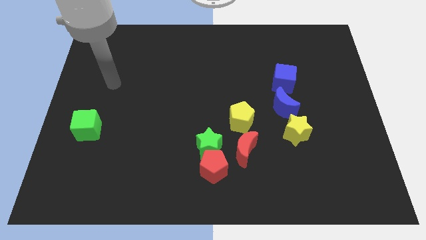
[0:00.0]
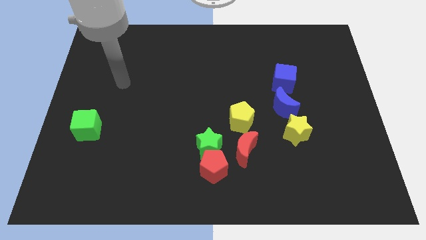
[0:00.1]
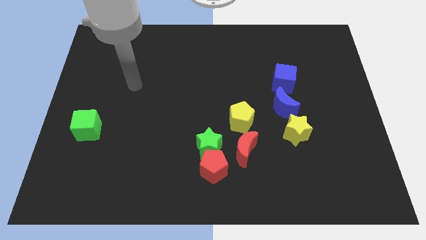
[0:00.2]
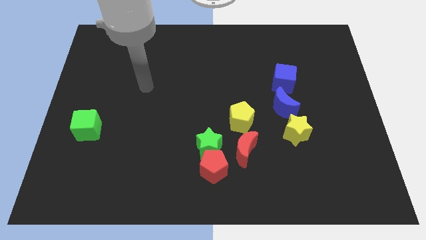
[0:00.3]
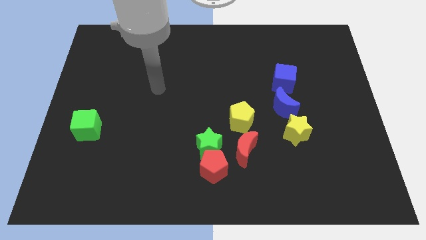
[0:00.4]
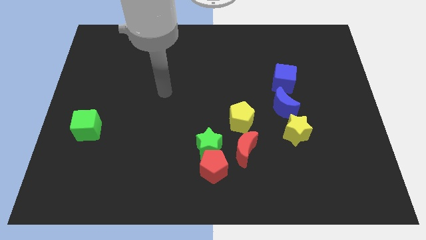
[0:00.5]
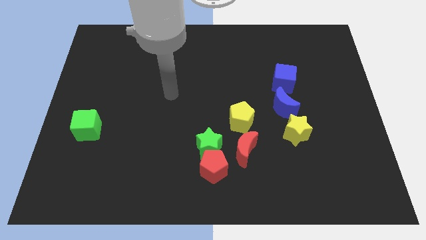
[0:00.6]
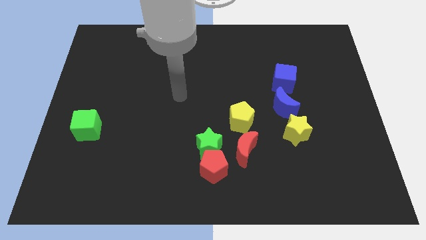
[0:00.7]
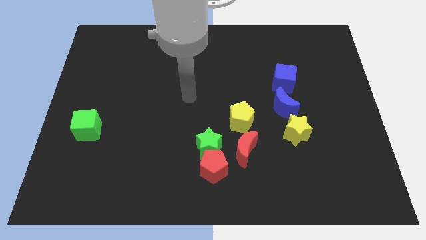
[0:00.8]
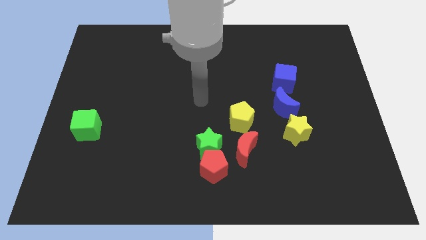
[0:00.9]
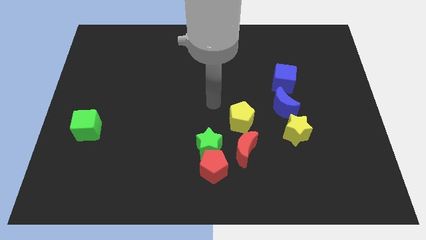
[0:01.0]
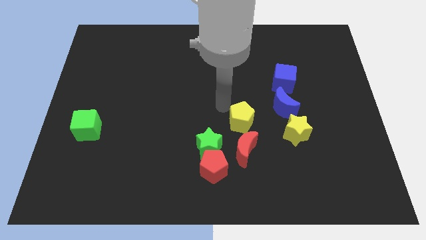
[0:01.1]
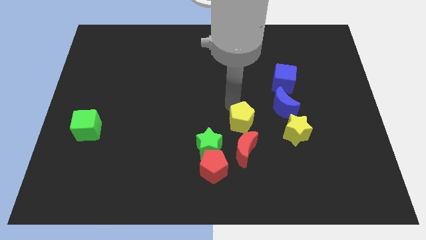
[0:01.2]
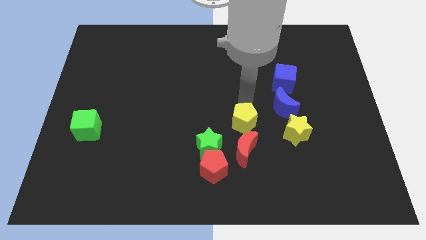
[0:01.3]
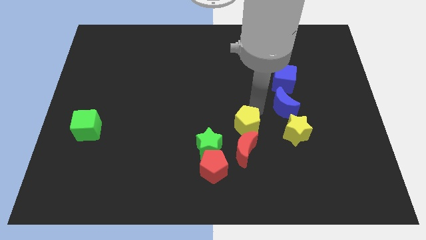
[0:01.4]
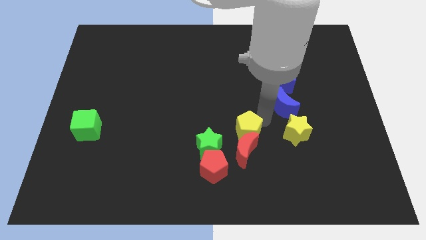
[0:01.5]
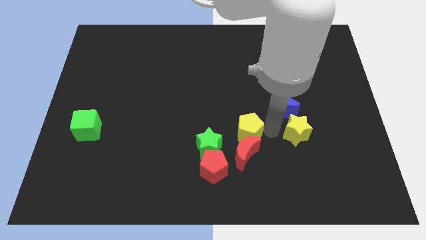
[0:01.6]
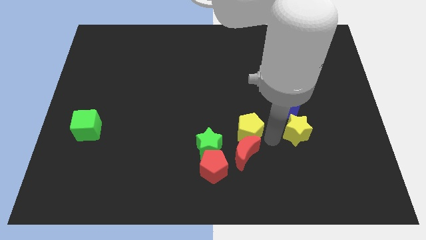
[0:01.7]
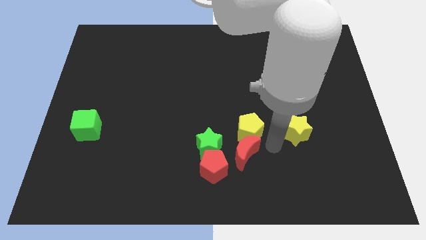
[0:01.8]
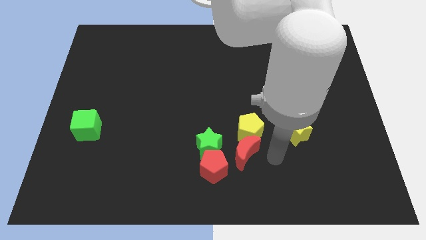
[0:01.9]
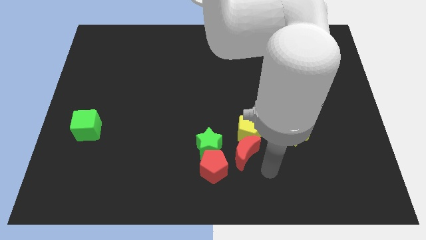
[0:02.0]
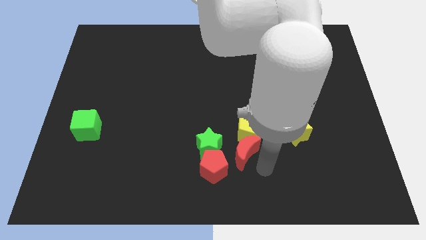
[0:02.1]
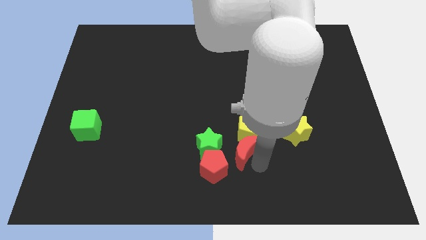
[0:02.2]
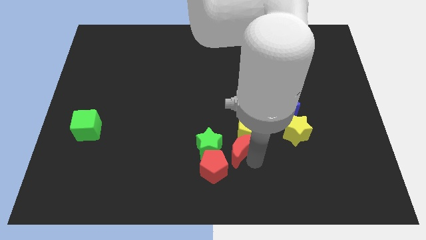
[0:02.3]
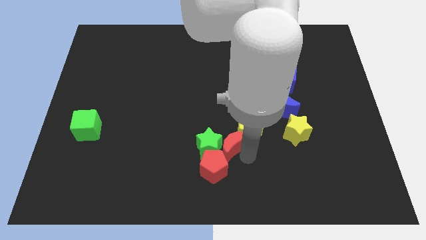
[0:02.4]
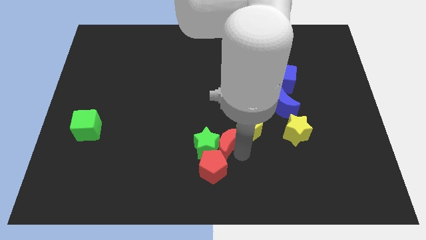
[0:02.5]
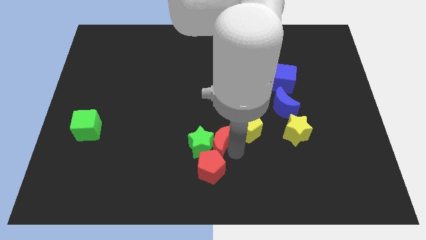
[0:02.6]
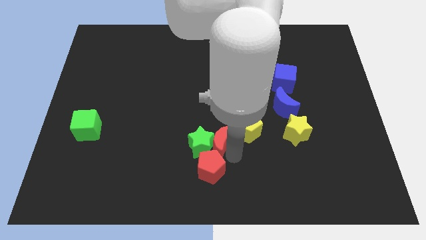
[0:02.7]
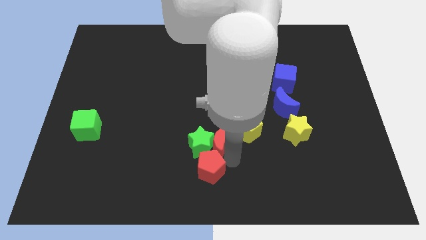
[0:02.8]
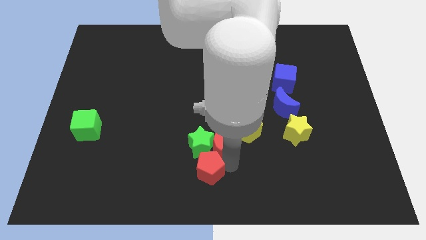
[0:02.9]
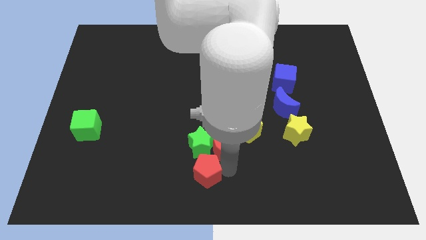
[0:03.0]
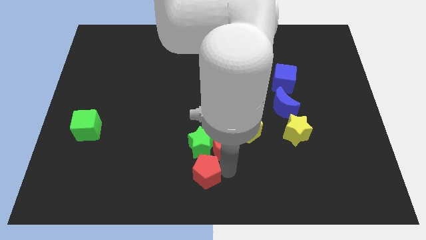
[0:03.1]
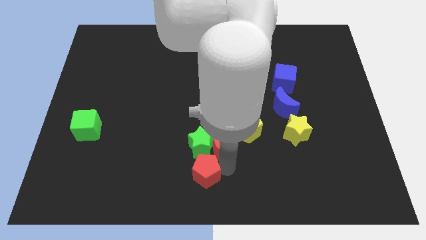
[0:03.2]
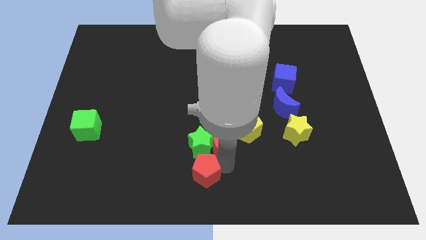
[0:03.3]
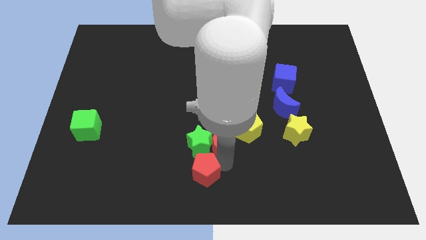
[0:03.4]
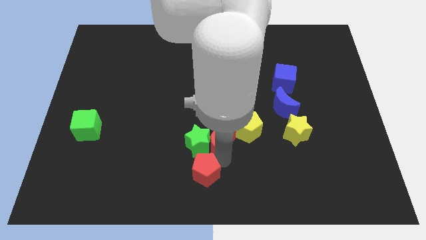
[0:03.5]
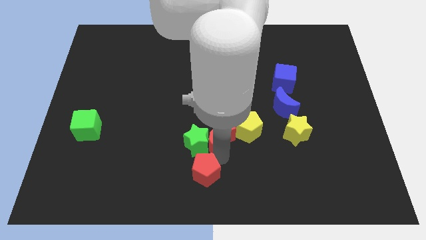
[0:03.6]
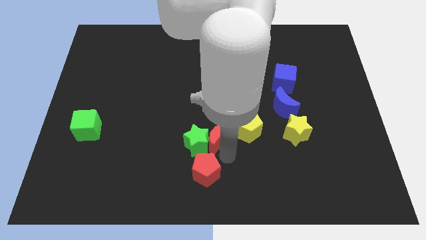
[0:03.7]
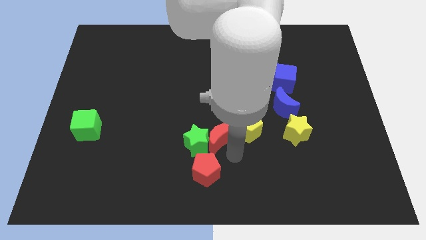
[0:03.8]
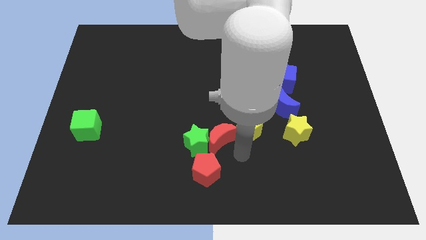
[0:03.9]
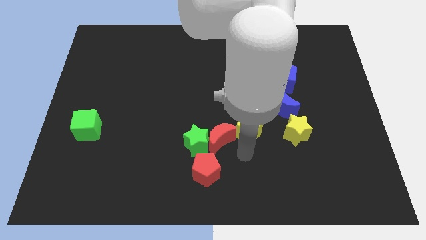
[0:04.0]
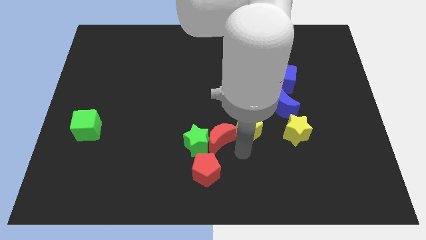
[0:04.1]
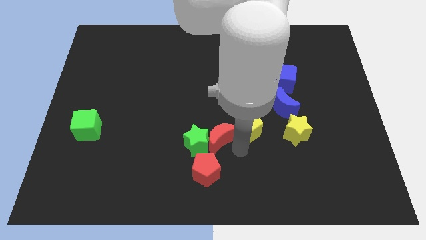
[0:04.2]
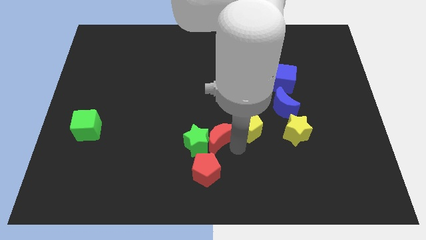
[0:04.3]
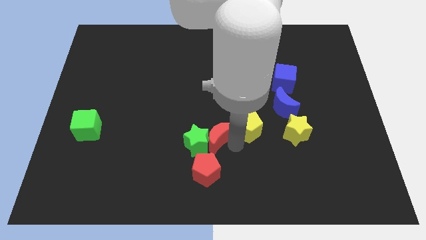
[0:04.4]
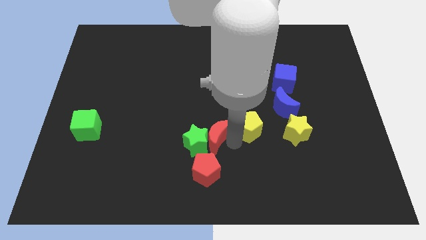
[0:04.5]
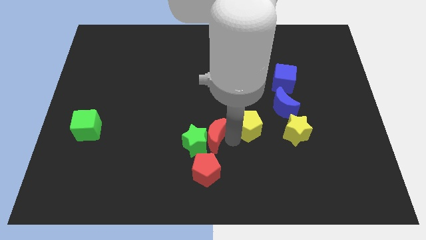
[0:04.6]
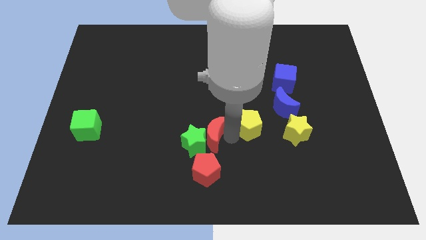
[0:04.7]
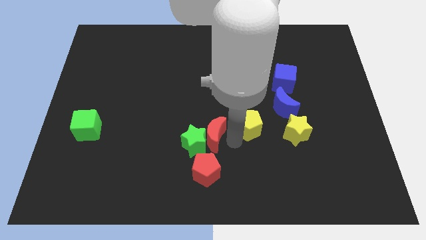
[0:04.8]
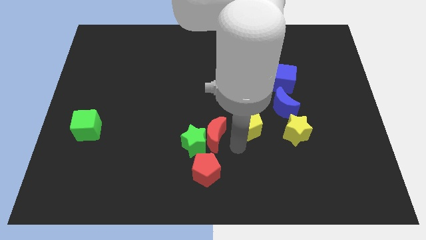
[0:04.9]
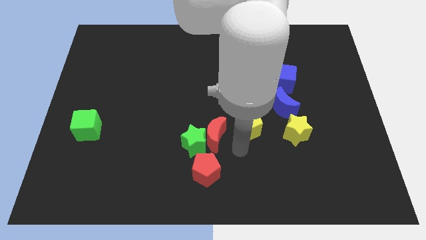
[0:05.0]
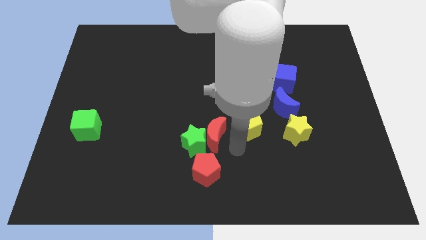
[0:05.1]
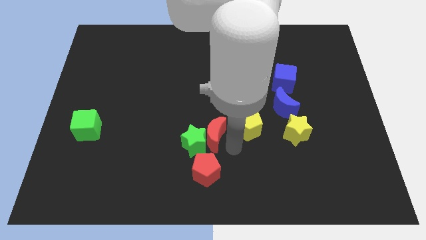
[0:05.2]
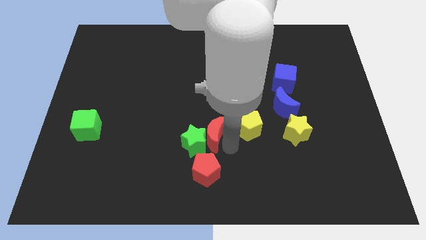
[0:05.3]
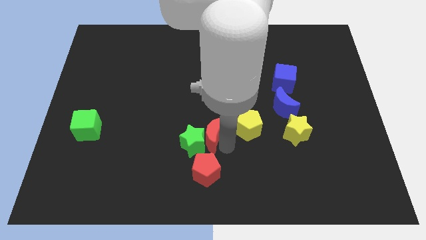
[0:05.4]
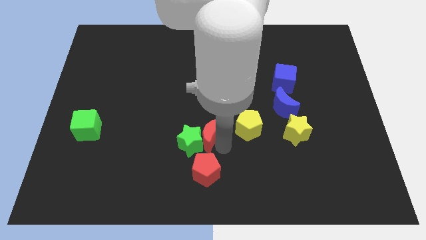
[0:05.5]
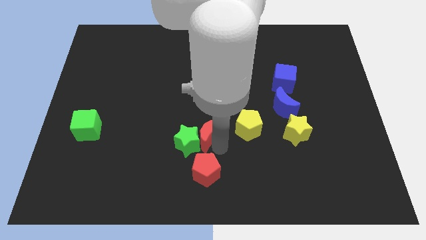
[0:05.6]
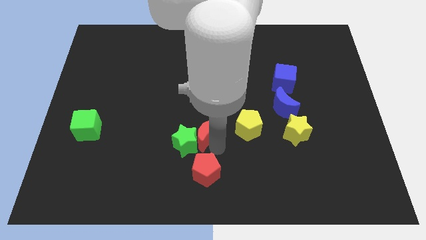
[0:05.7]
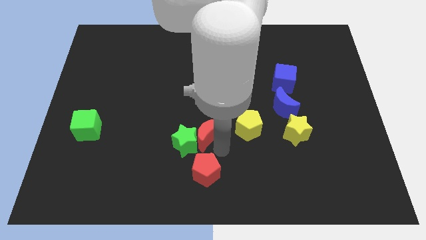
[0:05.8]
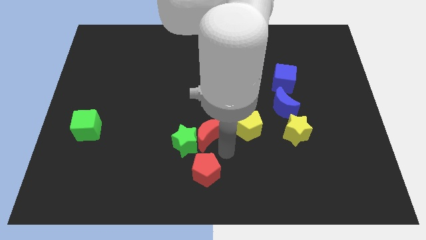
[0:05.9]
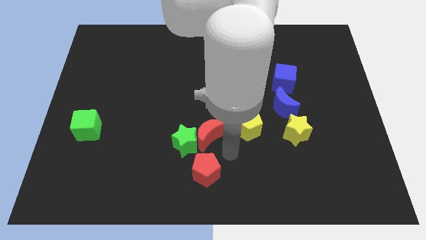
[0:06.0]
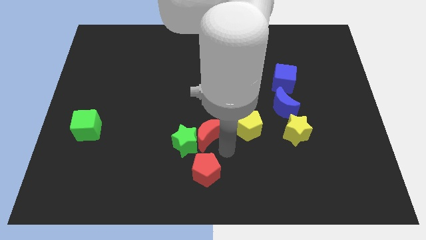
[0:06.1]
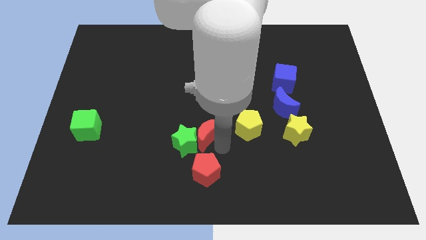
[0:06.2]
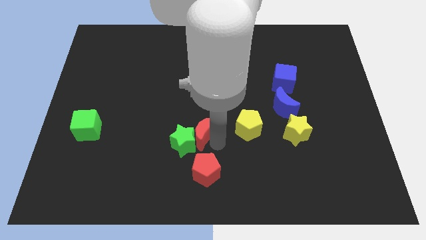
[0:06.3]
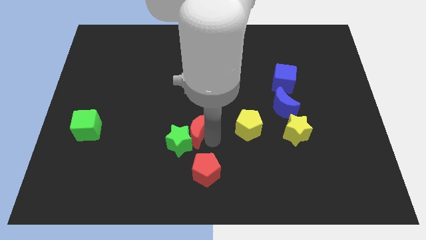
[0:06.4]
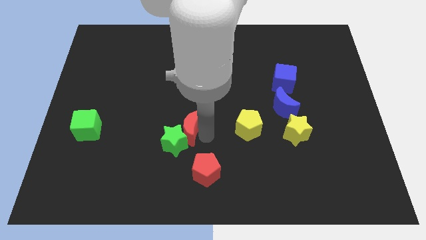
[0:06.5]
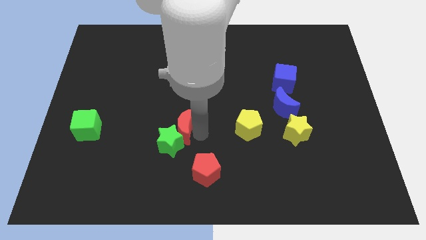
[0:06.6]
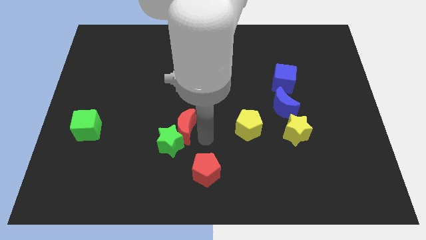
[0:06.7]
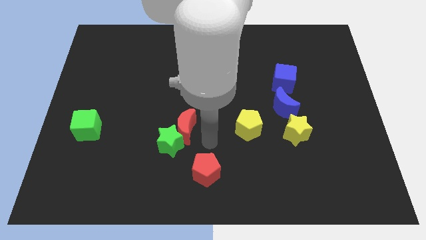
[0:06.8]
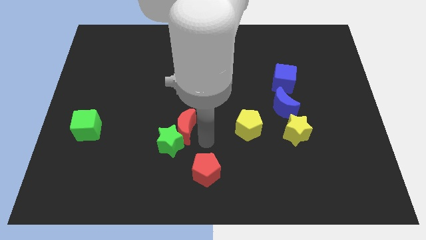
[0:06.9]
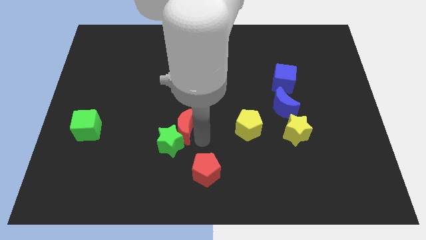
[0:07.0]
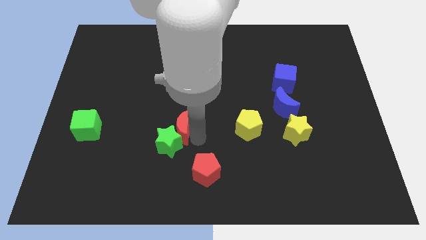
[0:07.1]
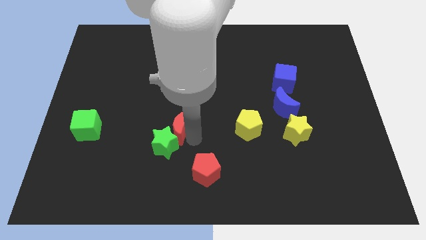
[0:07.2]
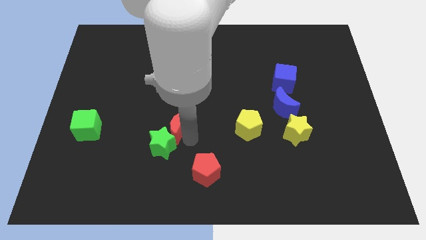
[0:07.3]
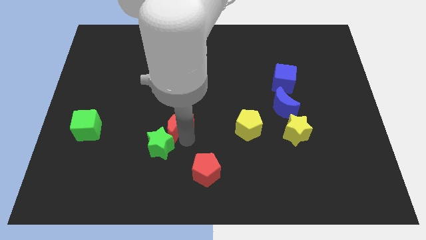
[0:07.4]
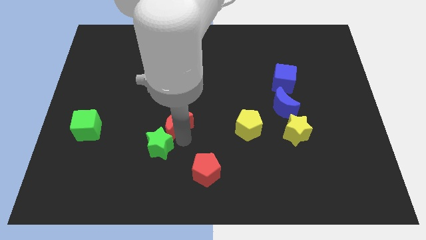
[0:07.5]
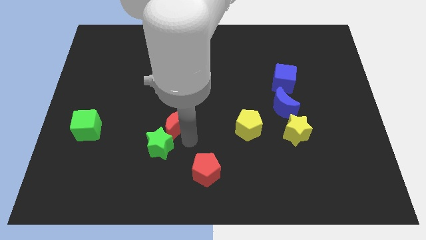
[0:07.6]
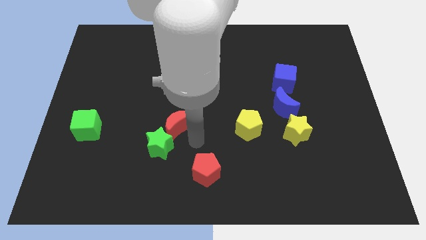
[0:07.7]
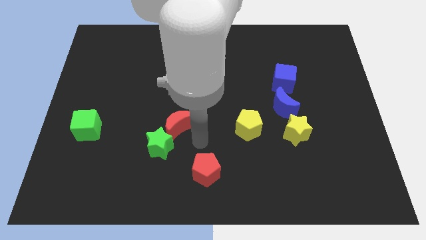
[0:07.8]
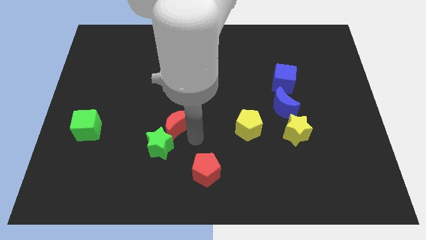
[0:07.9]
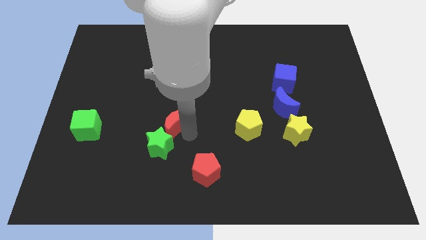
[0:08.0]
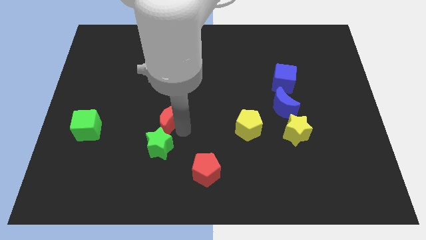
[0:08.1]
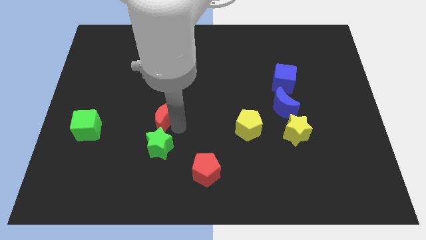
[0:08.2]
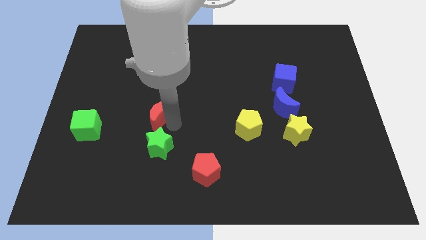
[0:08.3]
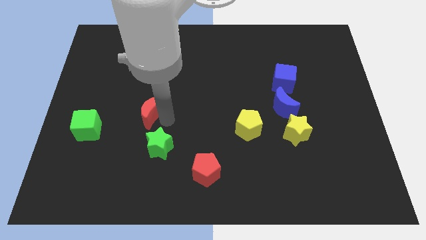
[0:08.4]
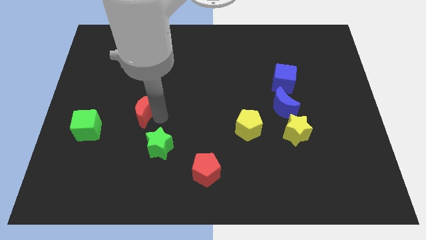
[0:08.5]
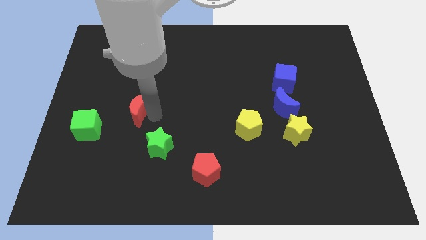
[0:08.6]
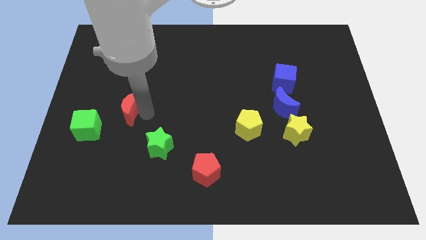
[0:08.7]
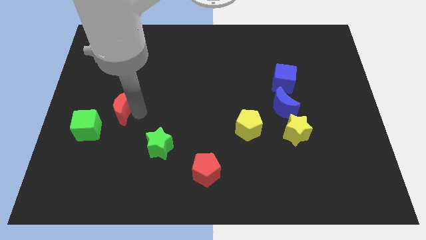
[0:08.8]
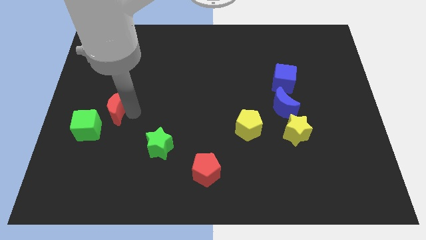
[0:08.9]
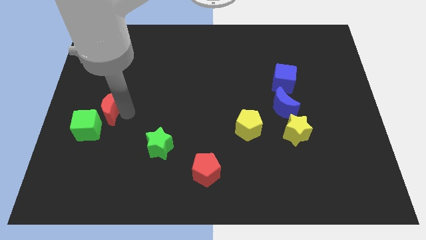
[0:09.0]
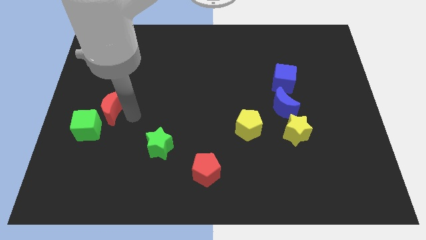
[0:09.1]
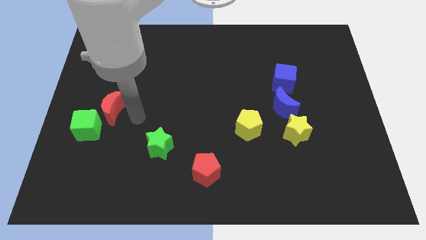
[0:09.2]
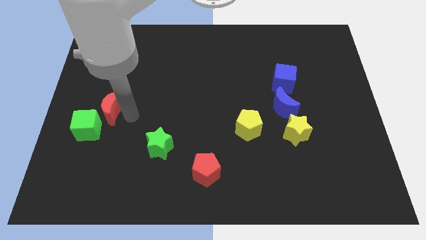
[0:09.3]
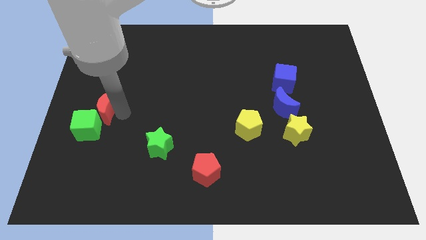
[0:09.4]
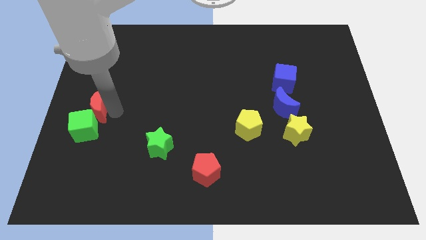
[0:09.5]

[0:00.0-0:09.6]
push the red moon to the center left
